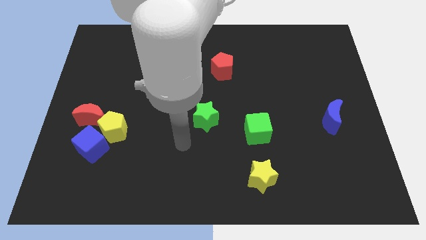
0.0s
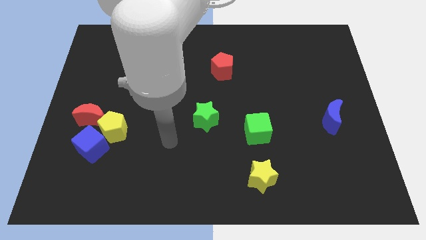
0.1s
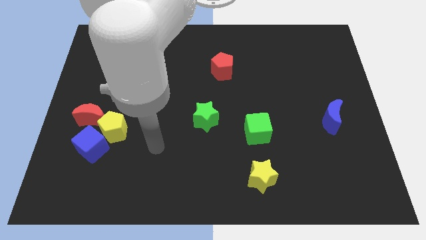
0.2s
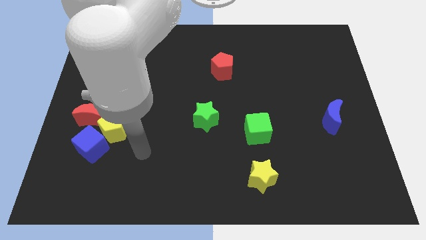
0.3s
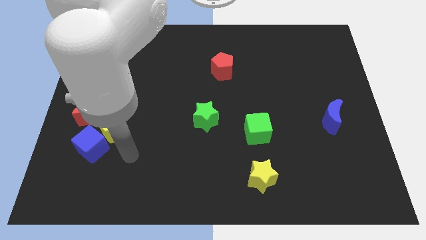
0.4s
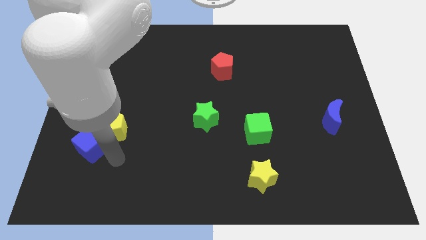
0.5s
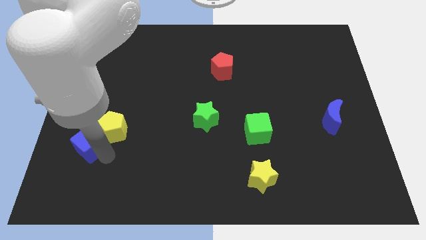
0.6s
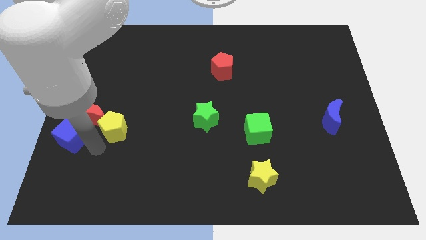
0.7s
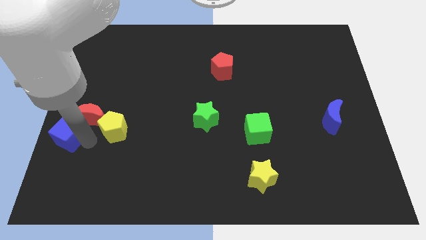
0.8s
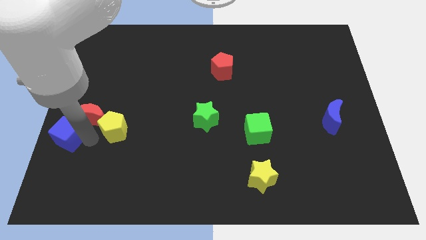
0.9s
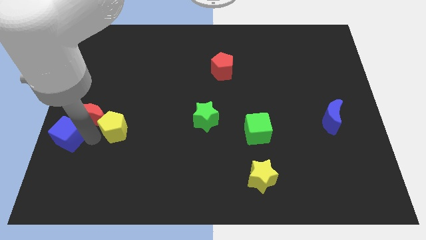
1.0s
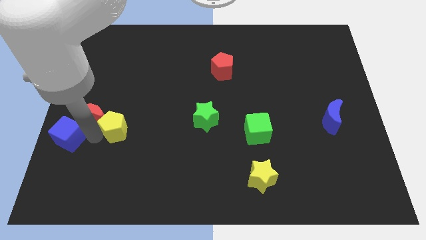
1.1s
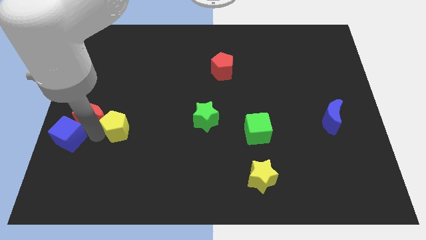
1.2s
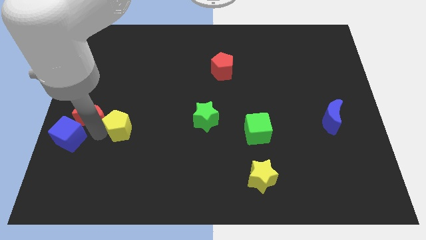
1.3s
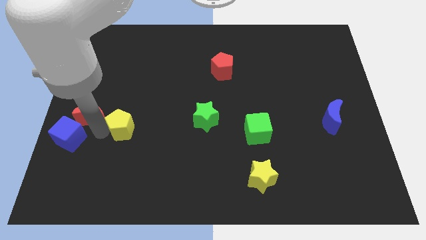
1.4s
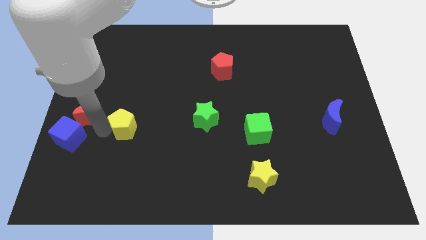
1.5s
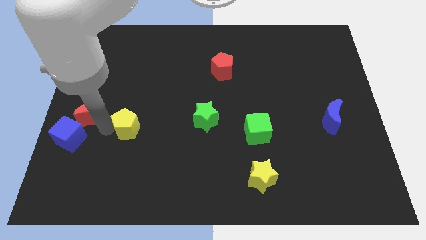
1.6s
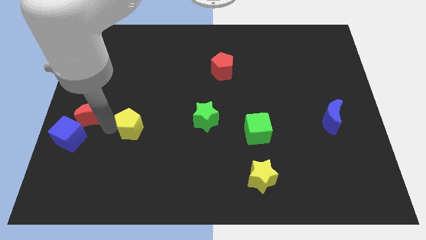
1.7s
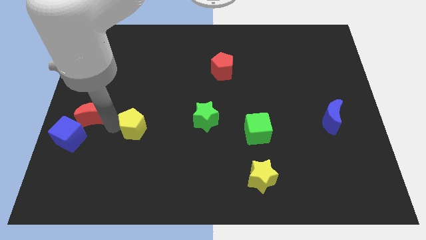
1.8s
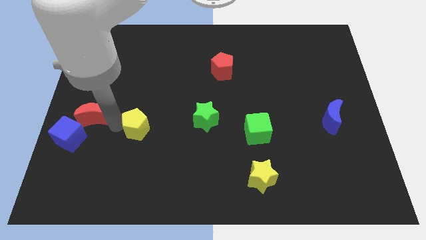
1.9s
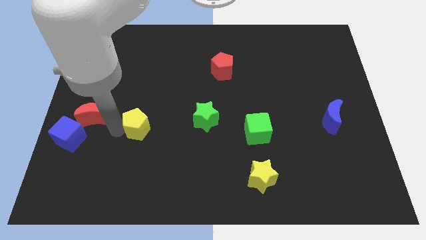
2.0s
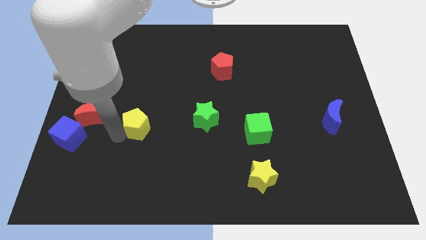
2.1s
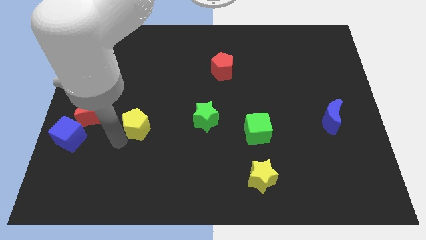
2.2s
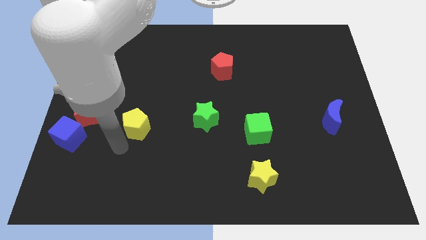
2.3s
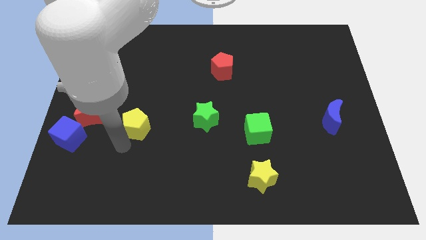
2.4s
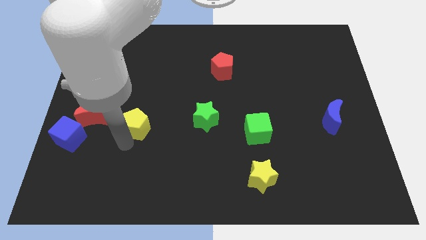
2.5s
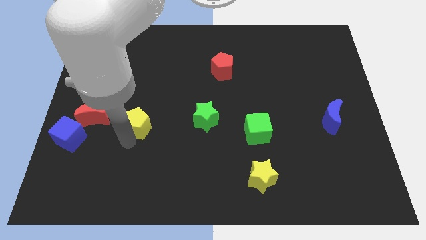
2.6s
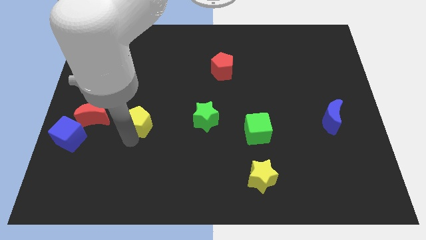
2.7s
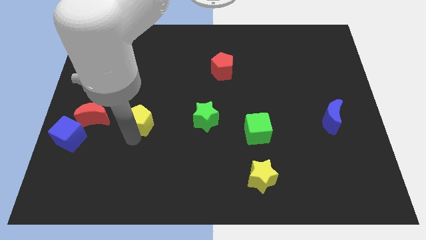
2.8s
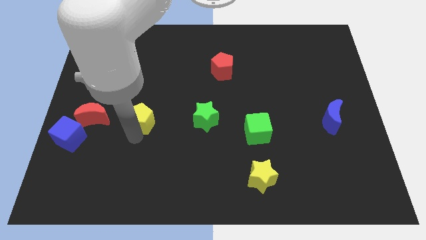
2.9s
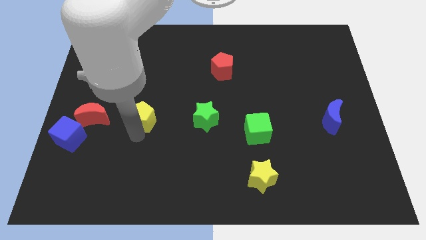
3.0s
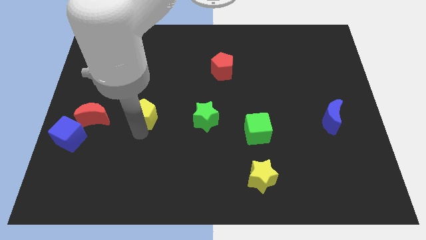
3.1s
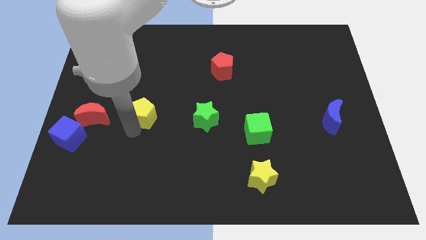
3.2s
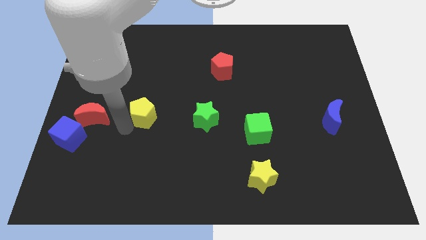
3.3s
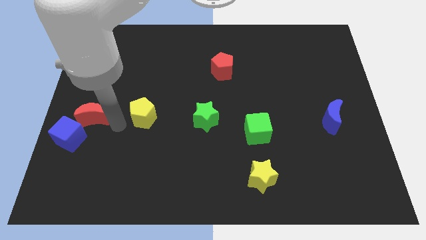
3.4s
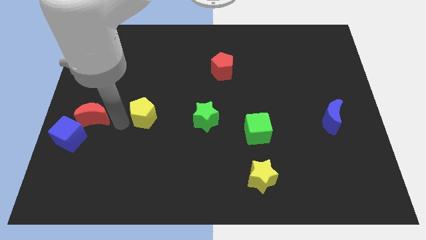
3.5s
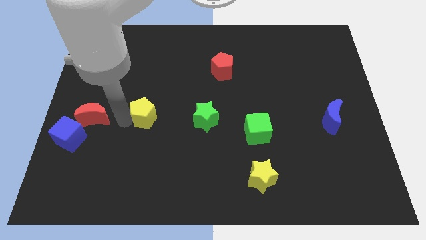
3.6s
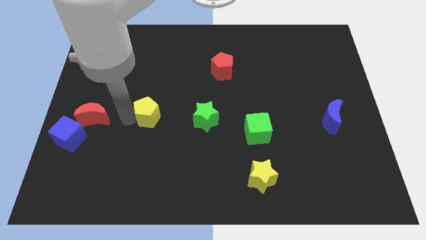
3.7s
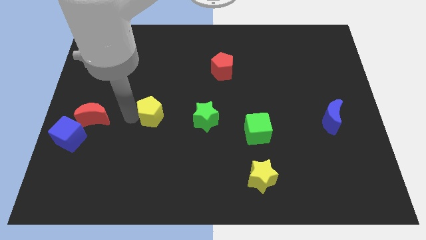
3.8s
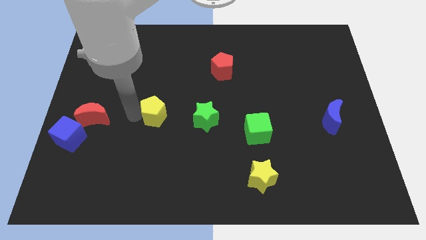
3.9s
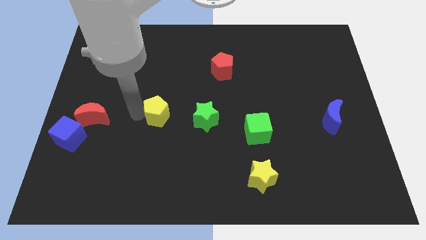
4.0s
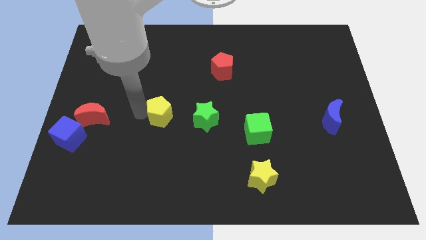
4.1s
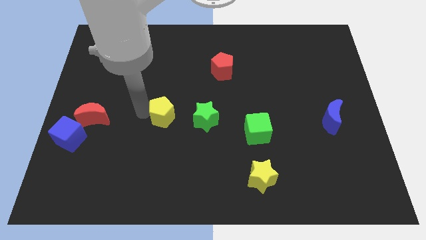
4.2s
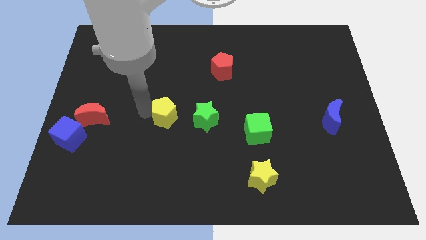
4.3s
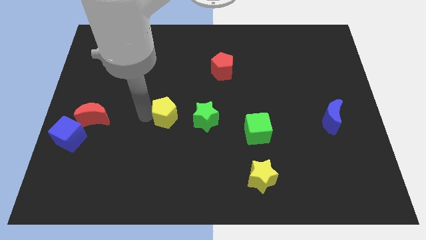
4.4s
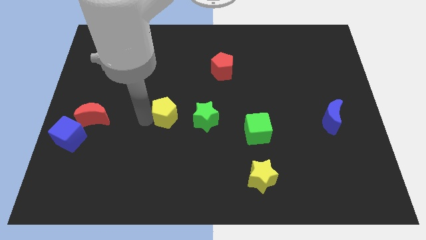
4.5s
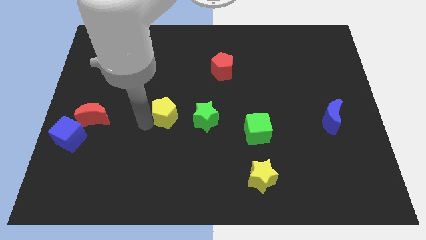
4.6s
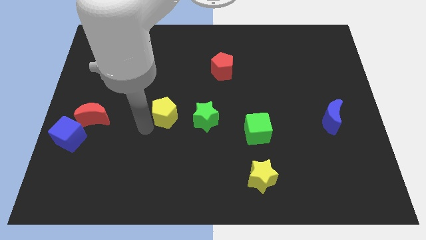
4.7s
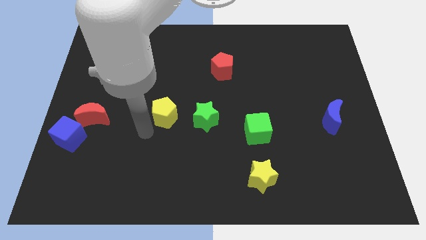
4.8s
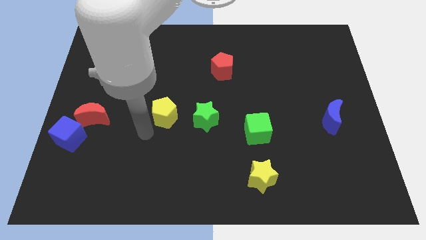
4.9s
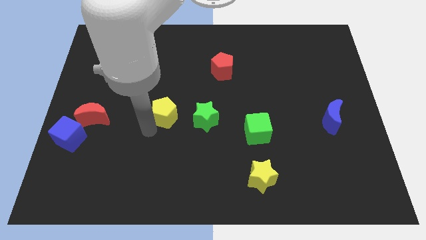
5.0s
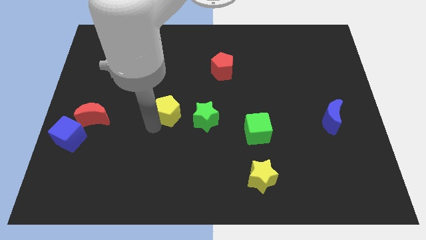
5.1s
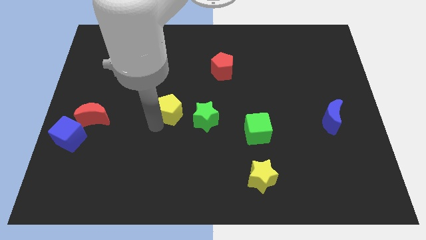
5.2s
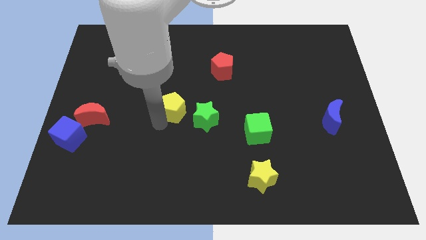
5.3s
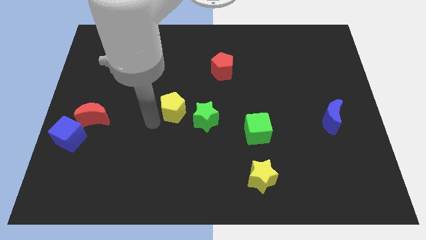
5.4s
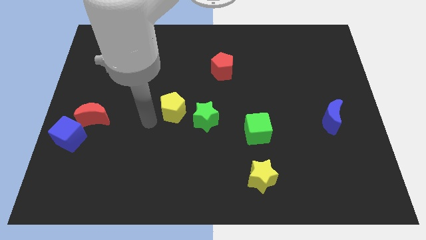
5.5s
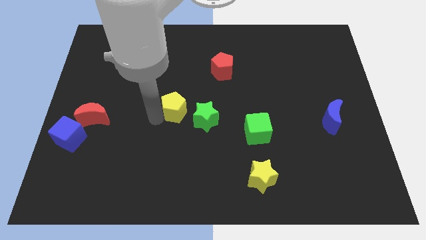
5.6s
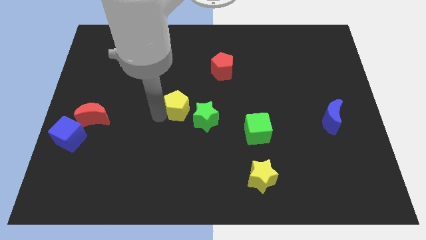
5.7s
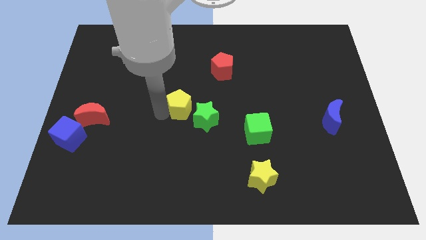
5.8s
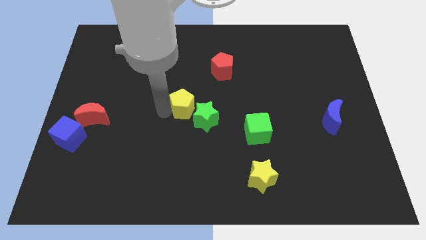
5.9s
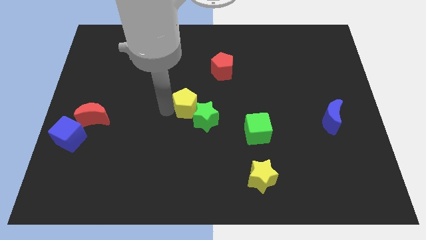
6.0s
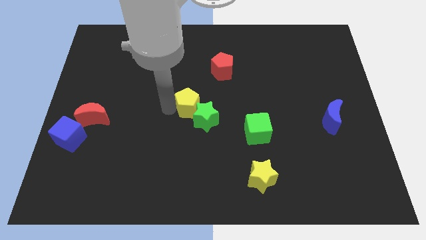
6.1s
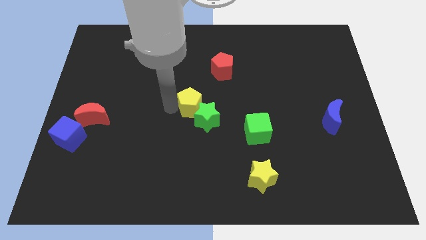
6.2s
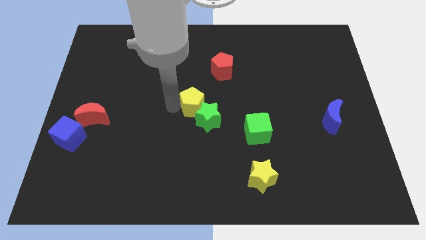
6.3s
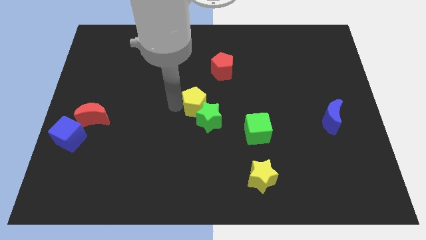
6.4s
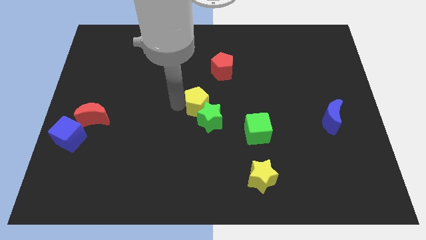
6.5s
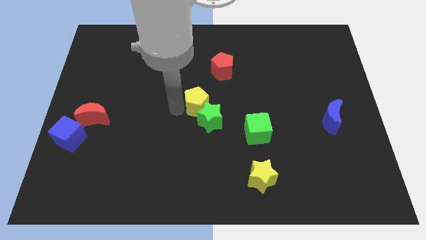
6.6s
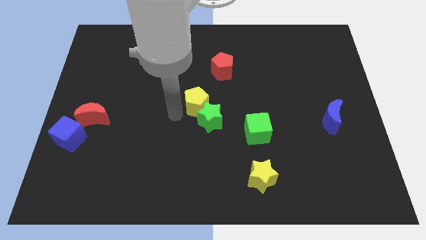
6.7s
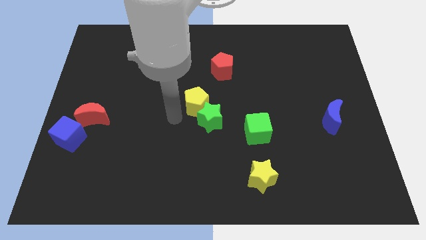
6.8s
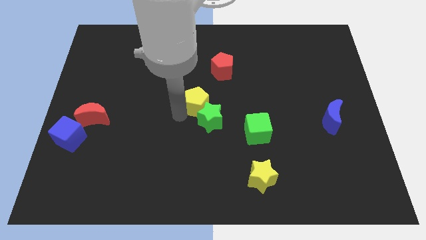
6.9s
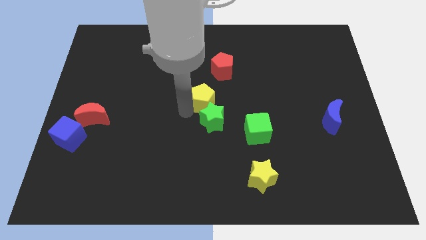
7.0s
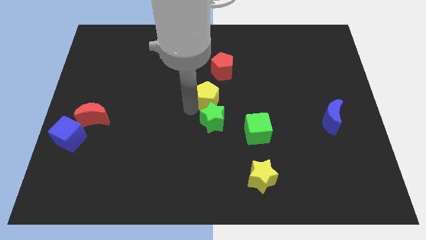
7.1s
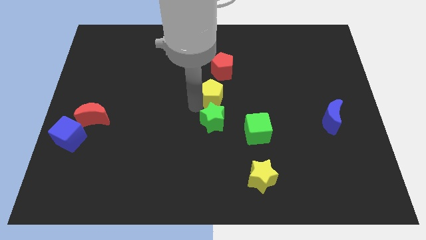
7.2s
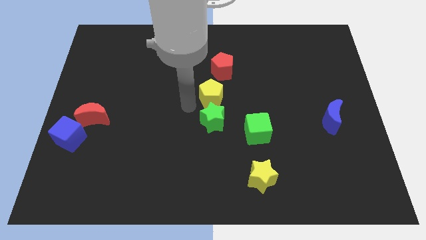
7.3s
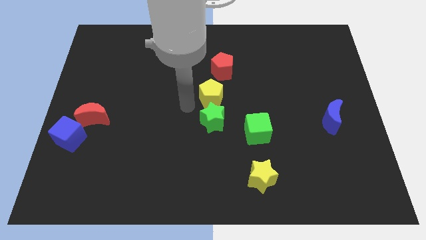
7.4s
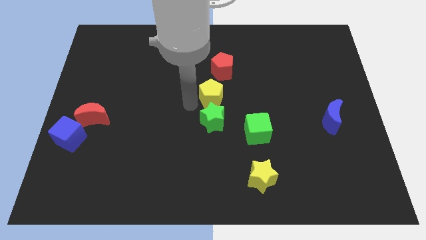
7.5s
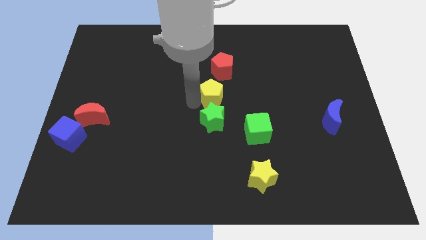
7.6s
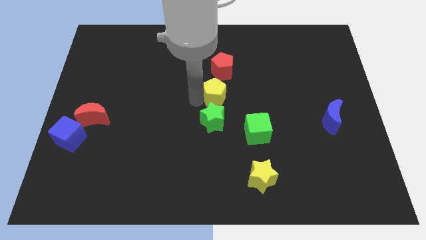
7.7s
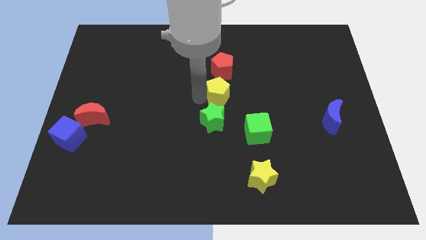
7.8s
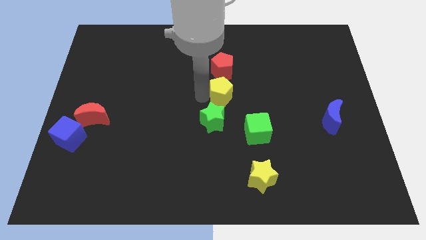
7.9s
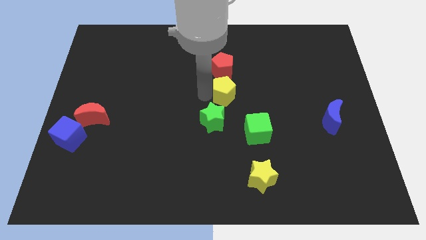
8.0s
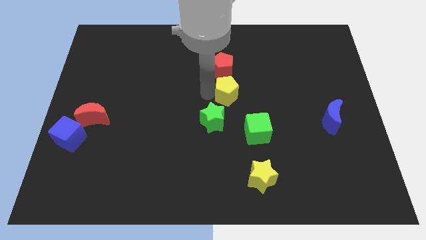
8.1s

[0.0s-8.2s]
move the yellow pentagon to the bottom right side of the red pentagon
